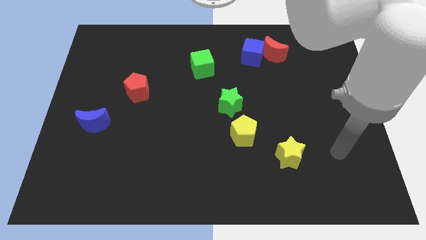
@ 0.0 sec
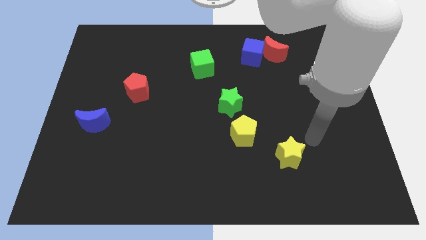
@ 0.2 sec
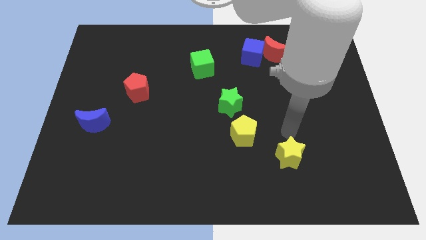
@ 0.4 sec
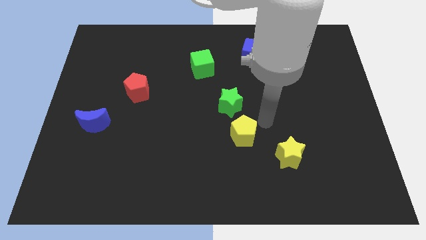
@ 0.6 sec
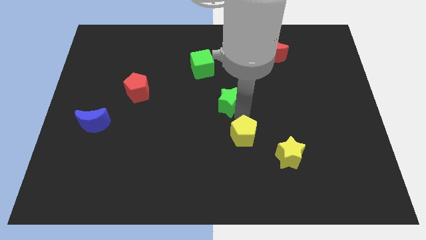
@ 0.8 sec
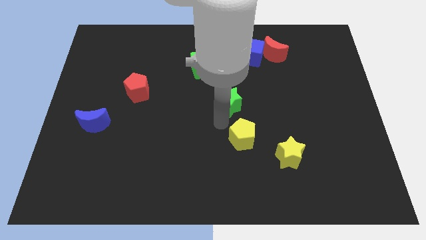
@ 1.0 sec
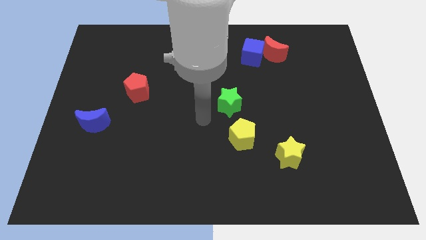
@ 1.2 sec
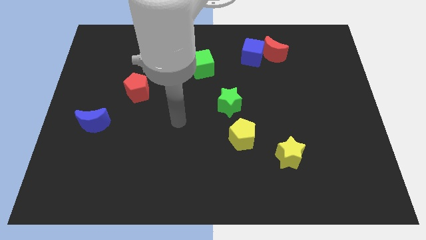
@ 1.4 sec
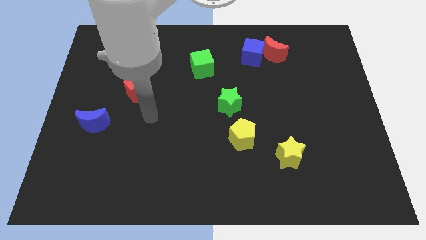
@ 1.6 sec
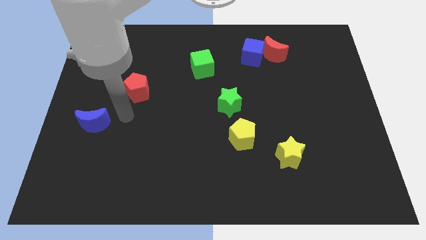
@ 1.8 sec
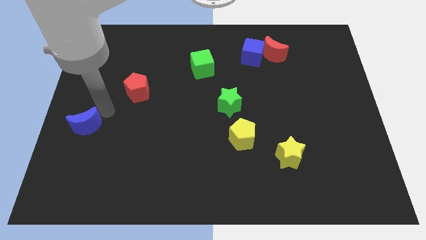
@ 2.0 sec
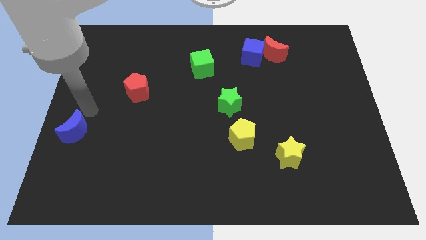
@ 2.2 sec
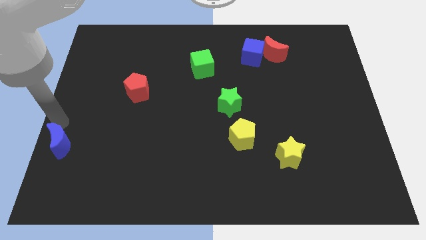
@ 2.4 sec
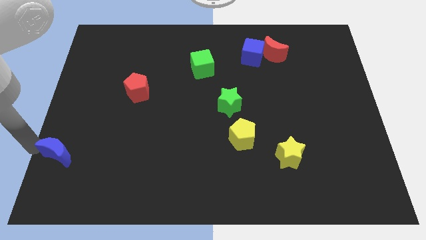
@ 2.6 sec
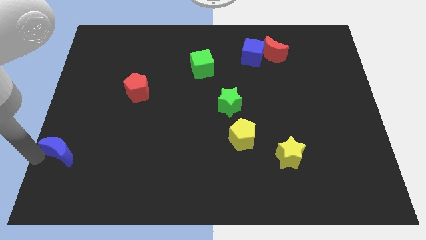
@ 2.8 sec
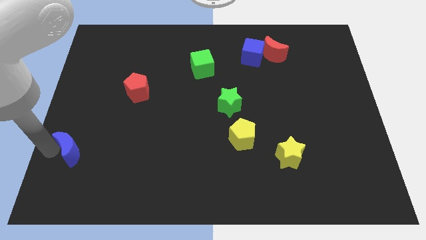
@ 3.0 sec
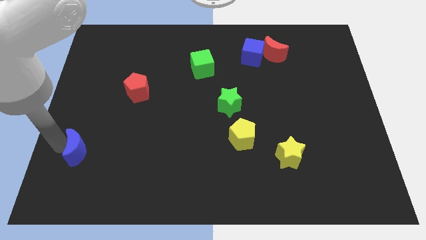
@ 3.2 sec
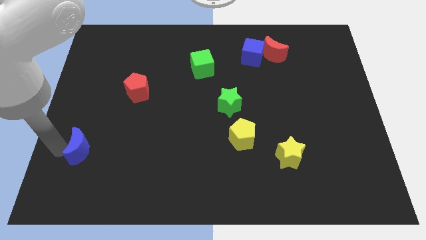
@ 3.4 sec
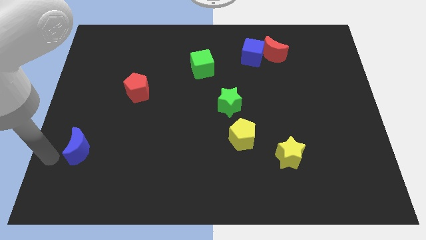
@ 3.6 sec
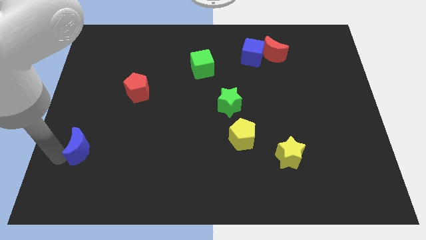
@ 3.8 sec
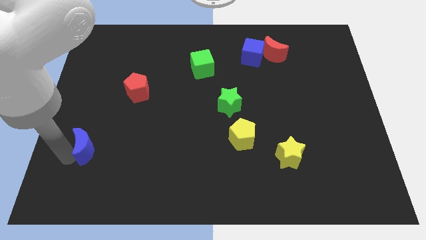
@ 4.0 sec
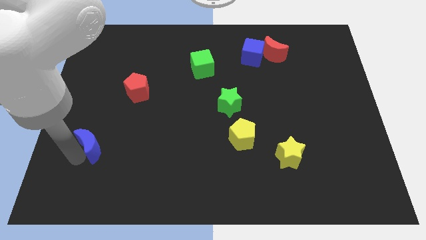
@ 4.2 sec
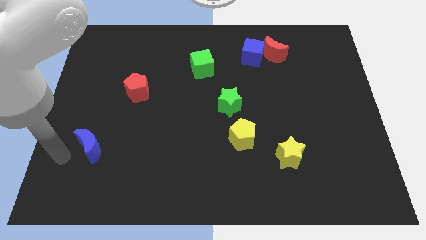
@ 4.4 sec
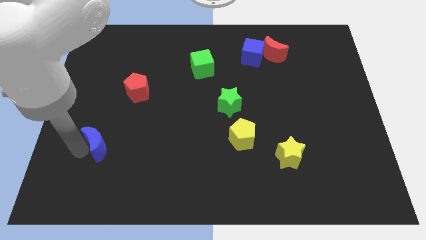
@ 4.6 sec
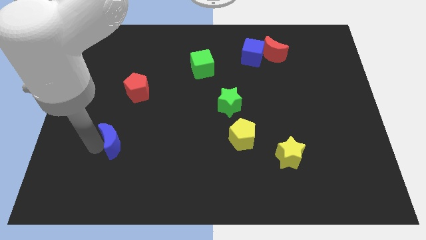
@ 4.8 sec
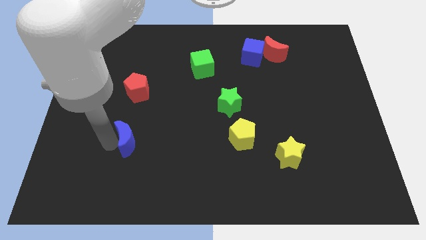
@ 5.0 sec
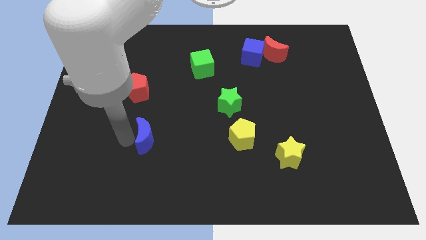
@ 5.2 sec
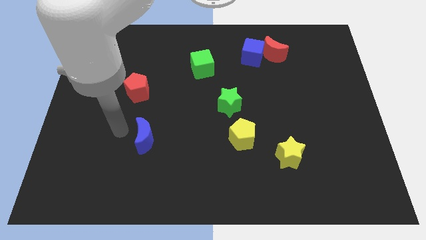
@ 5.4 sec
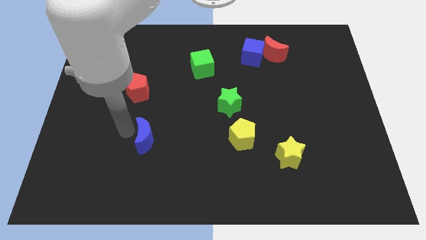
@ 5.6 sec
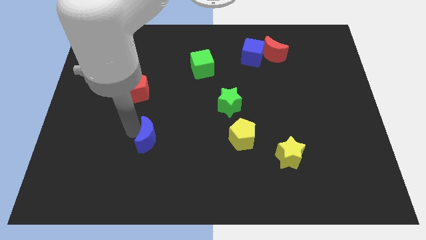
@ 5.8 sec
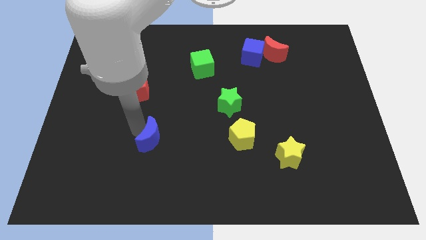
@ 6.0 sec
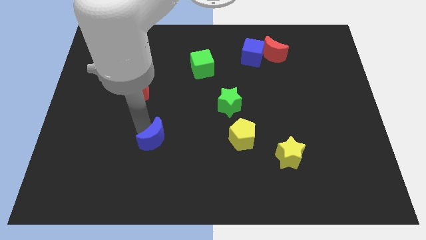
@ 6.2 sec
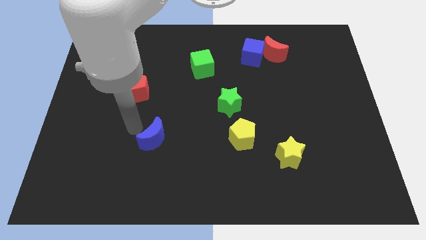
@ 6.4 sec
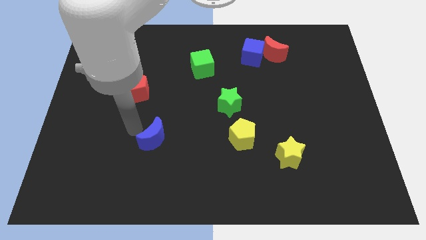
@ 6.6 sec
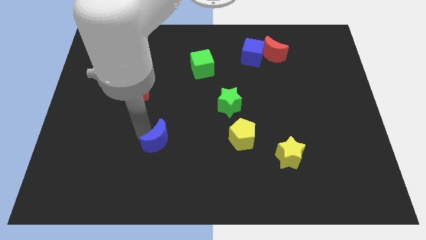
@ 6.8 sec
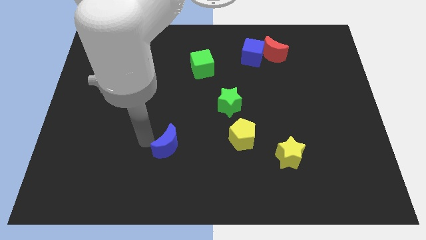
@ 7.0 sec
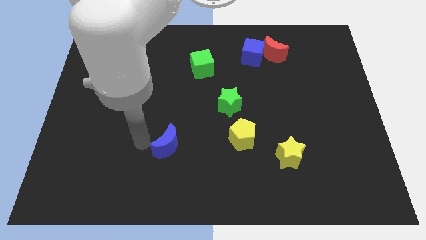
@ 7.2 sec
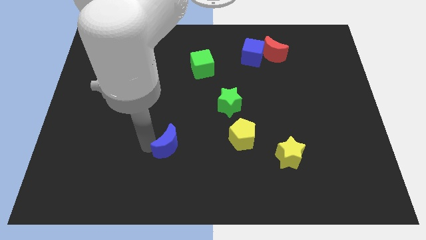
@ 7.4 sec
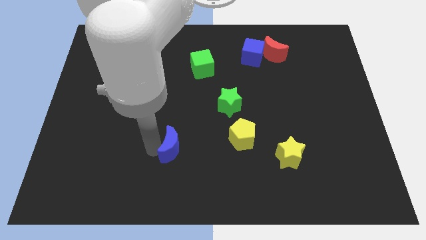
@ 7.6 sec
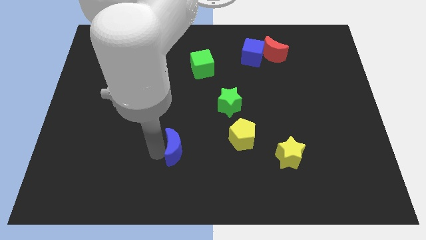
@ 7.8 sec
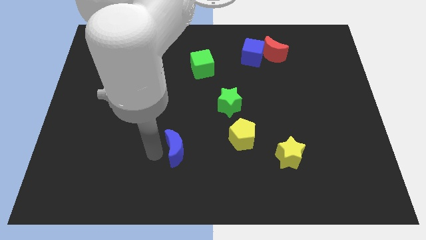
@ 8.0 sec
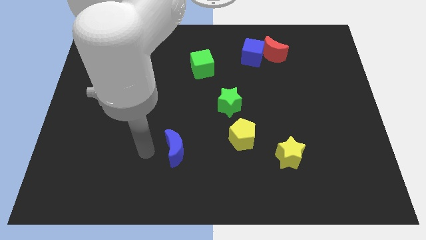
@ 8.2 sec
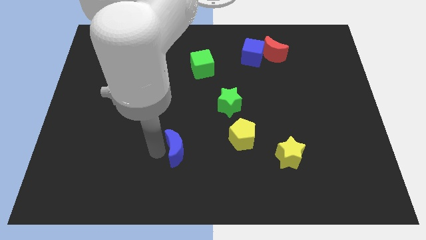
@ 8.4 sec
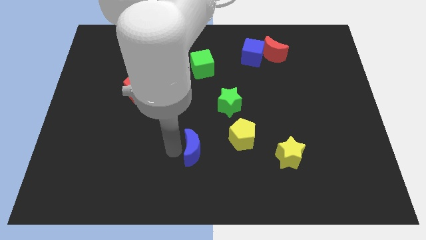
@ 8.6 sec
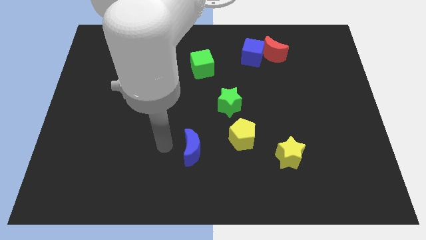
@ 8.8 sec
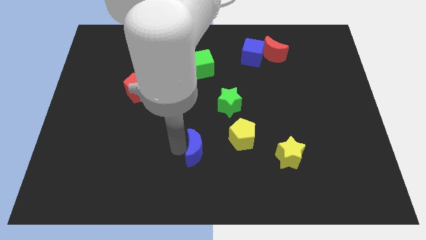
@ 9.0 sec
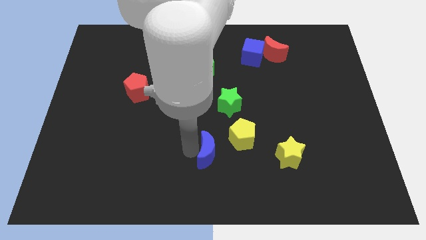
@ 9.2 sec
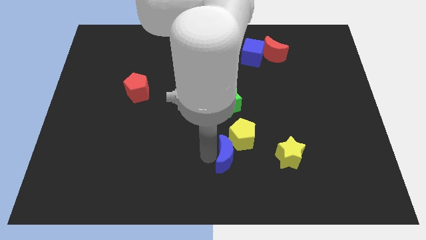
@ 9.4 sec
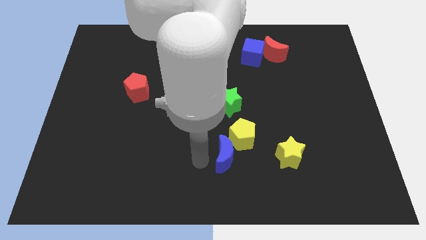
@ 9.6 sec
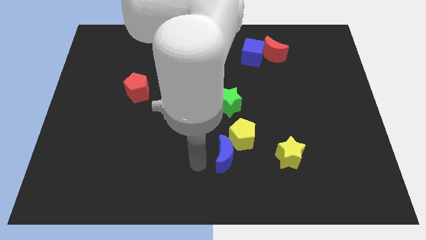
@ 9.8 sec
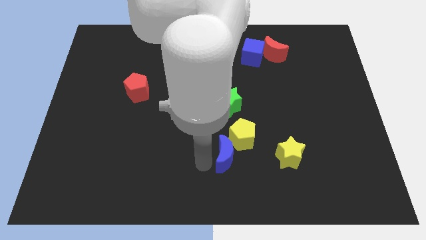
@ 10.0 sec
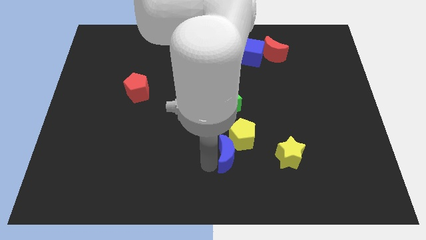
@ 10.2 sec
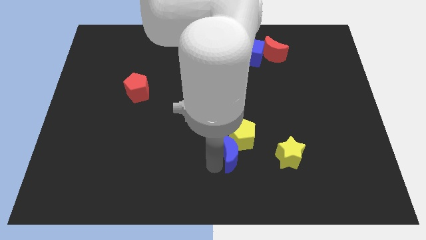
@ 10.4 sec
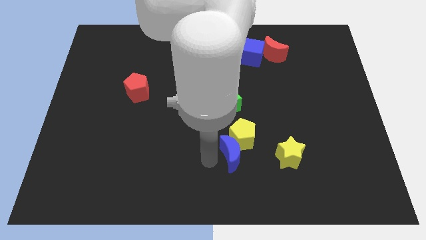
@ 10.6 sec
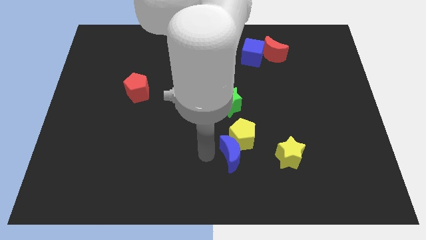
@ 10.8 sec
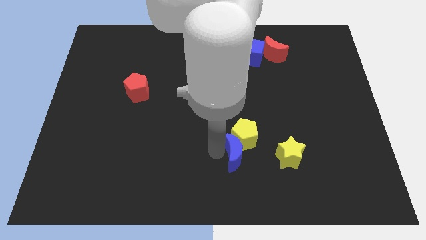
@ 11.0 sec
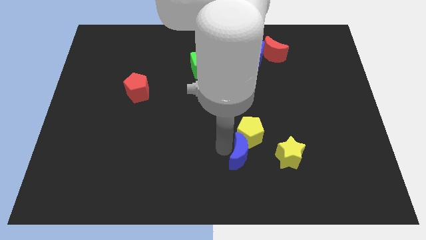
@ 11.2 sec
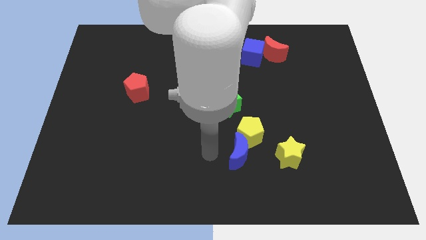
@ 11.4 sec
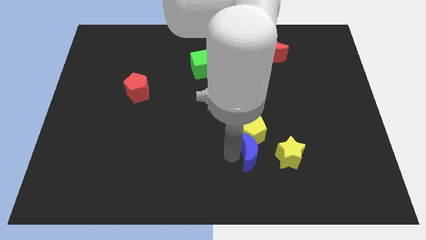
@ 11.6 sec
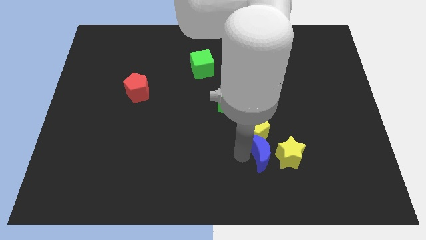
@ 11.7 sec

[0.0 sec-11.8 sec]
put the blue moon close to the yellow star

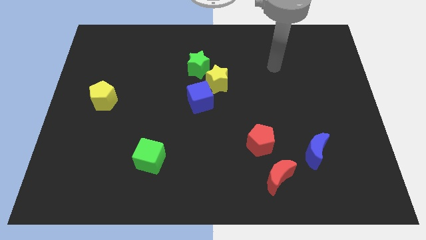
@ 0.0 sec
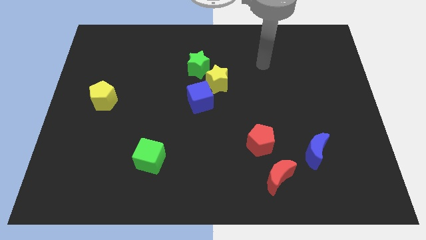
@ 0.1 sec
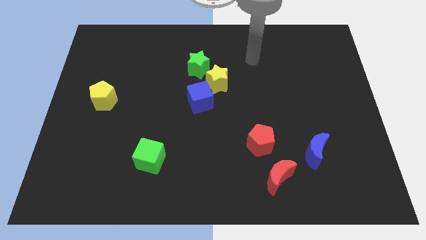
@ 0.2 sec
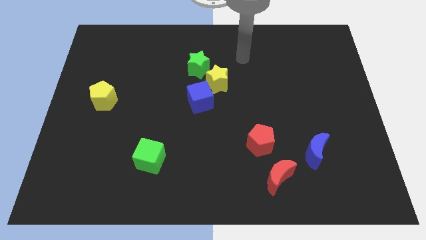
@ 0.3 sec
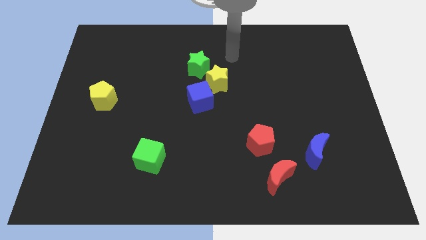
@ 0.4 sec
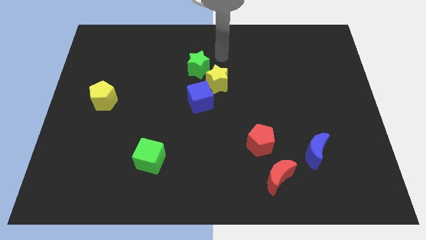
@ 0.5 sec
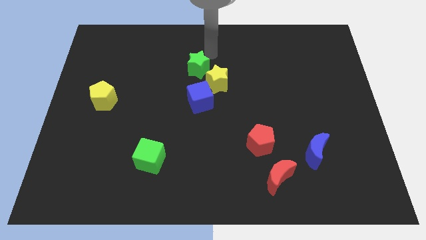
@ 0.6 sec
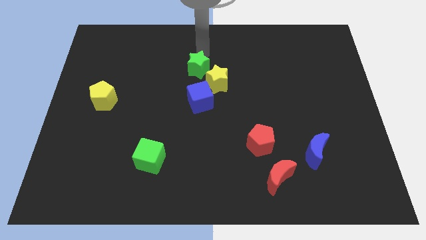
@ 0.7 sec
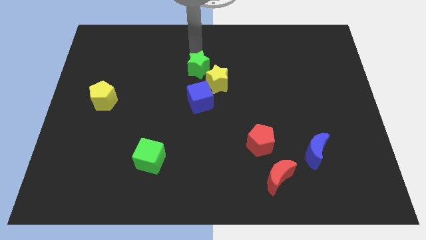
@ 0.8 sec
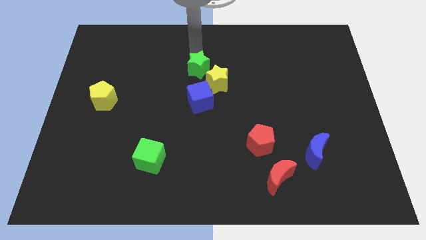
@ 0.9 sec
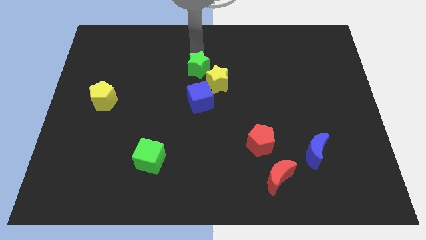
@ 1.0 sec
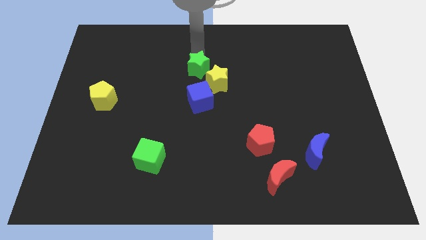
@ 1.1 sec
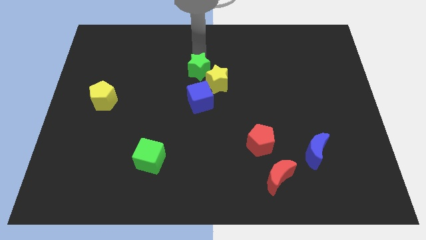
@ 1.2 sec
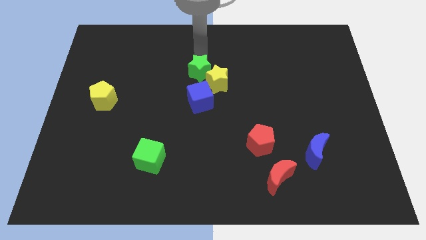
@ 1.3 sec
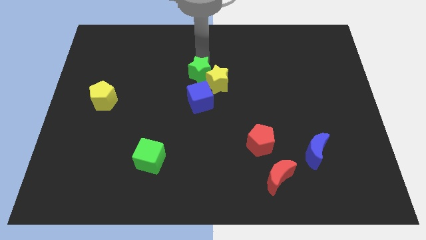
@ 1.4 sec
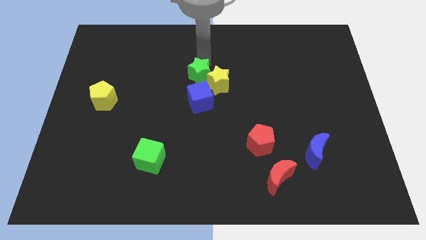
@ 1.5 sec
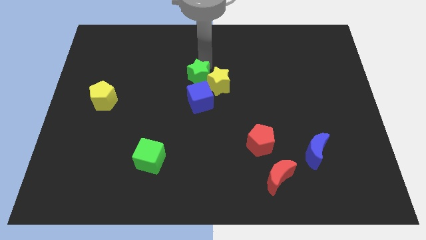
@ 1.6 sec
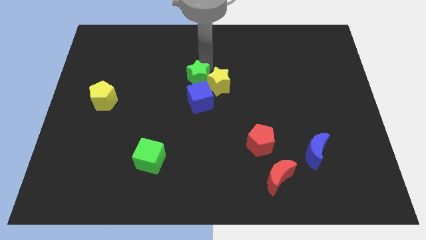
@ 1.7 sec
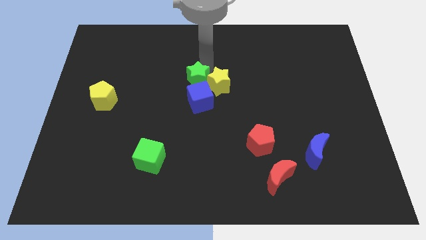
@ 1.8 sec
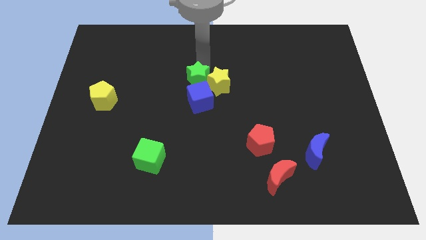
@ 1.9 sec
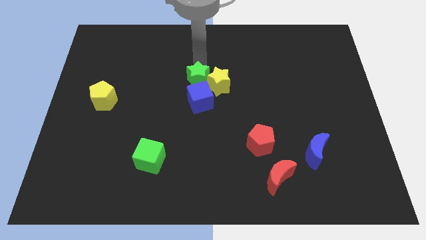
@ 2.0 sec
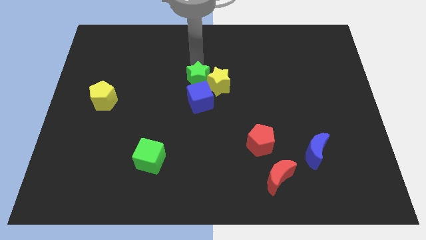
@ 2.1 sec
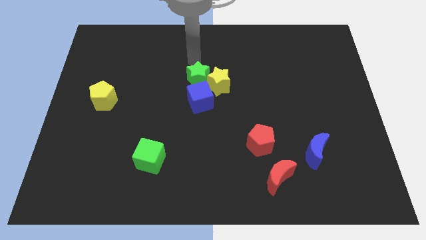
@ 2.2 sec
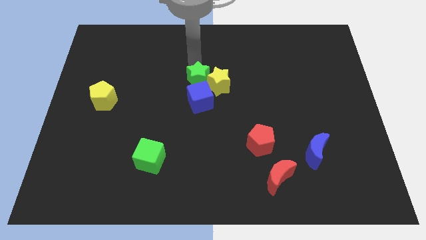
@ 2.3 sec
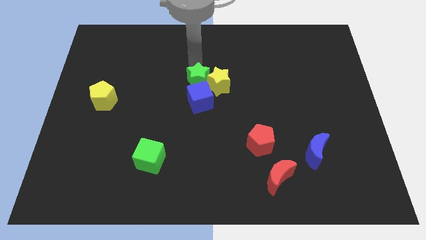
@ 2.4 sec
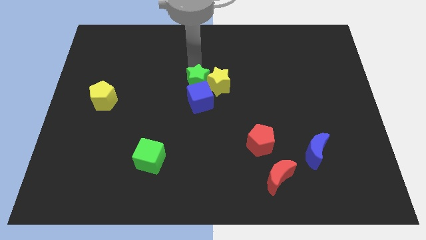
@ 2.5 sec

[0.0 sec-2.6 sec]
push the green star to the blue cube
